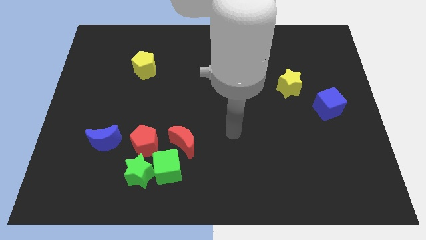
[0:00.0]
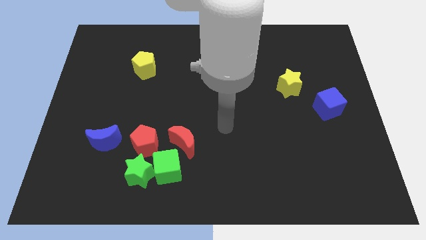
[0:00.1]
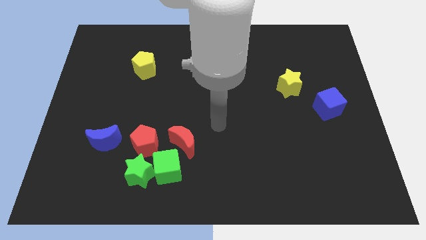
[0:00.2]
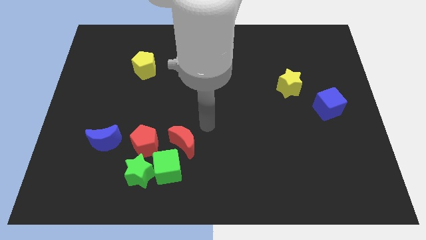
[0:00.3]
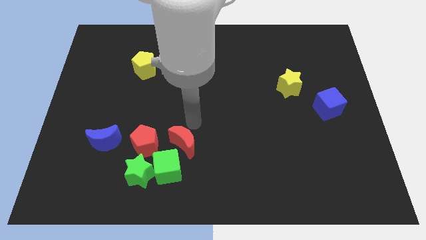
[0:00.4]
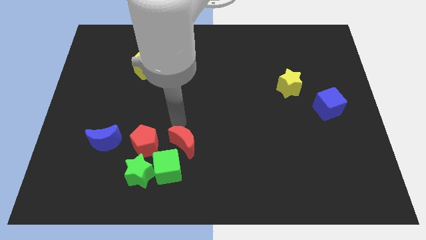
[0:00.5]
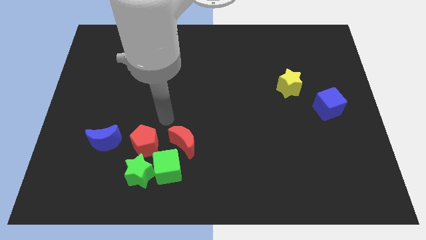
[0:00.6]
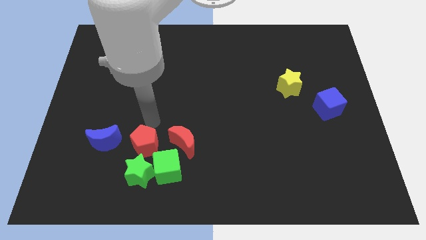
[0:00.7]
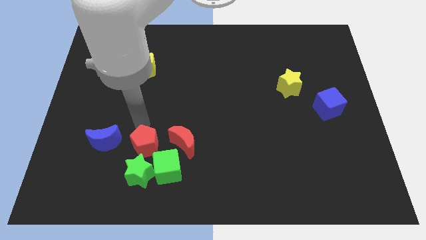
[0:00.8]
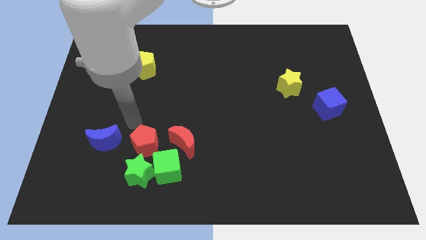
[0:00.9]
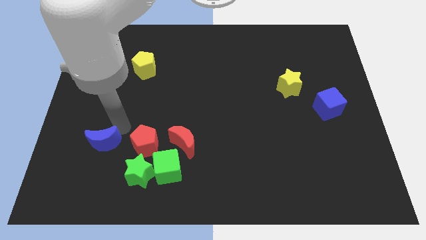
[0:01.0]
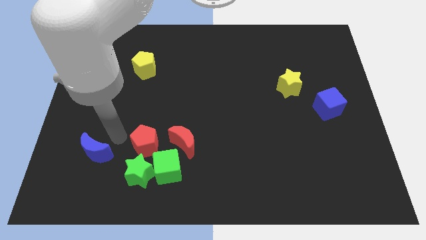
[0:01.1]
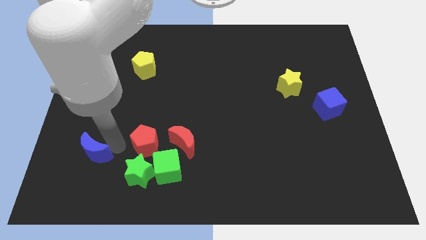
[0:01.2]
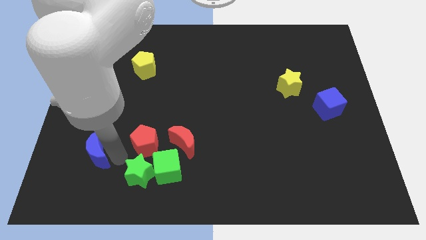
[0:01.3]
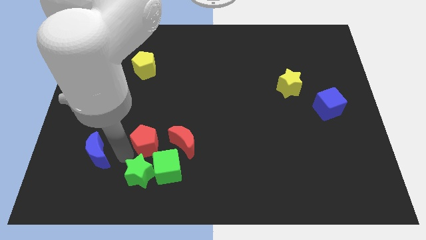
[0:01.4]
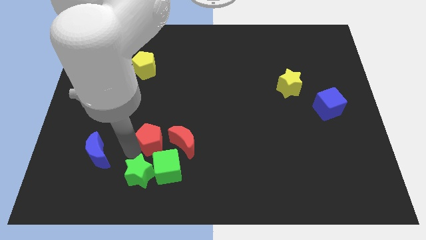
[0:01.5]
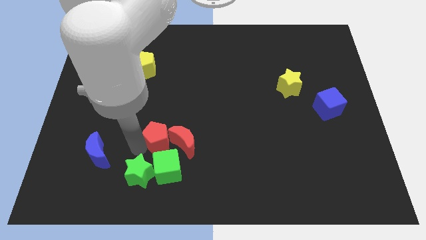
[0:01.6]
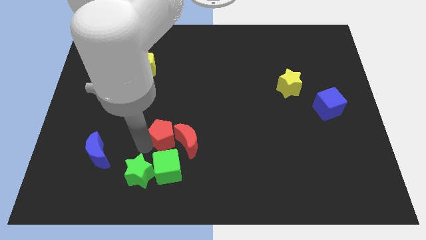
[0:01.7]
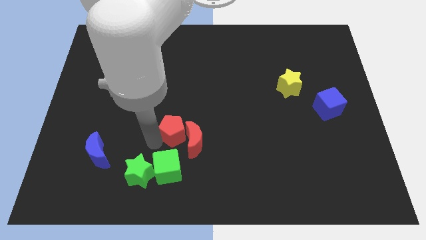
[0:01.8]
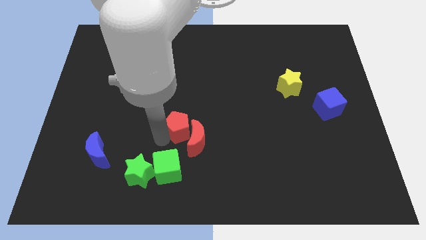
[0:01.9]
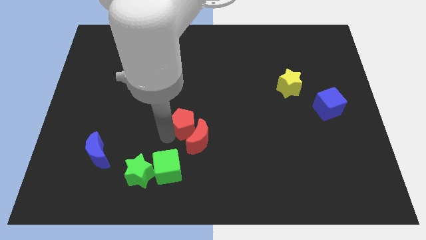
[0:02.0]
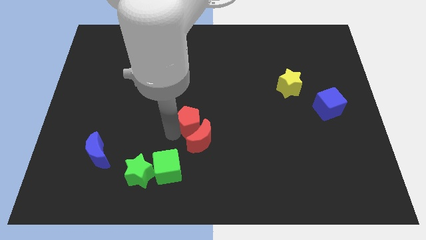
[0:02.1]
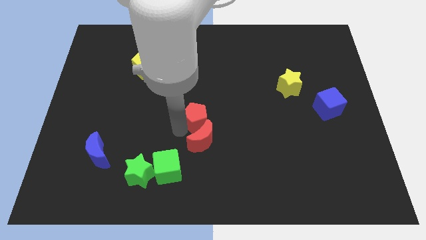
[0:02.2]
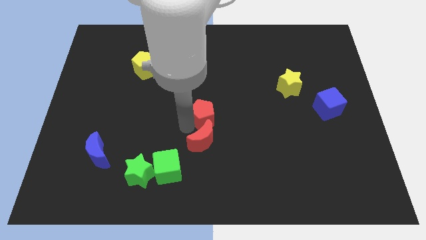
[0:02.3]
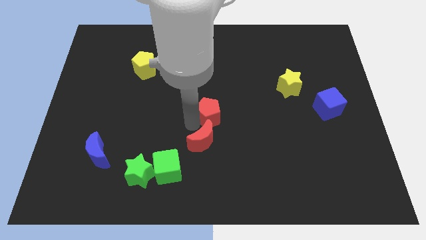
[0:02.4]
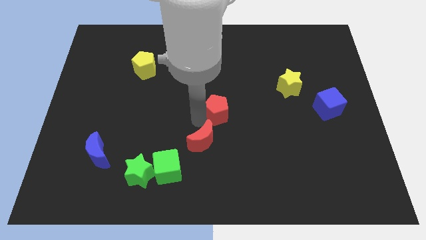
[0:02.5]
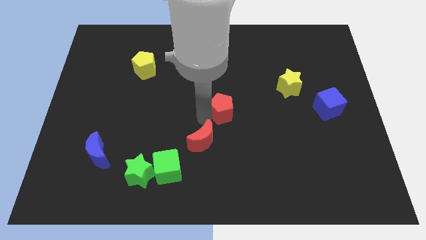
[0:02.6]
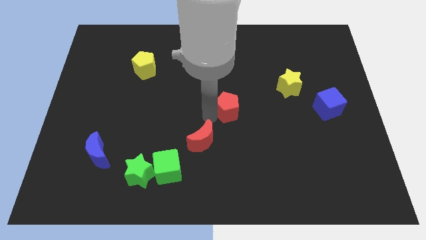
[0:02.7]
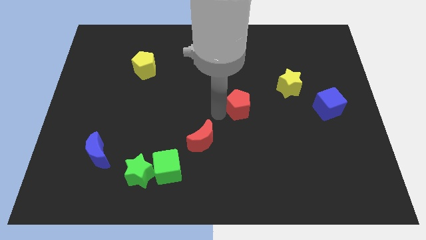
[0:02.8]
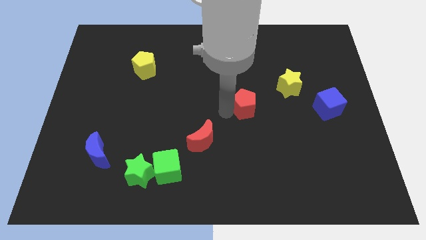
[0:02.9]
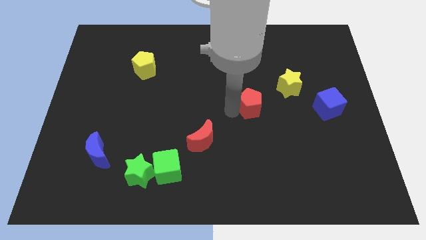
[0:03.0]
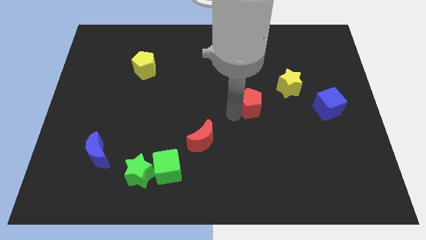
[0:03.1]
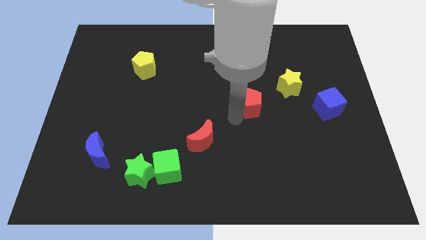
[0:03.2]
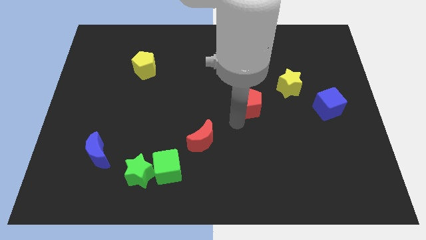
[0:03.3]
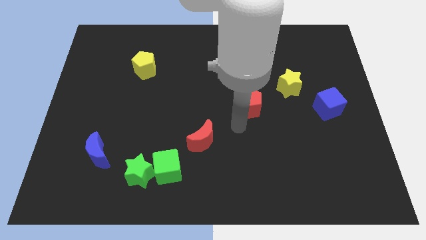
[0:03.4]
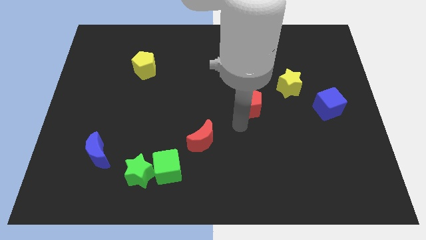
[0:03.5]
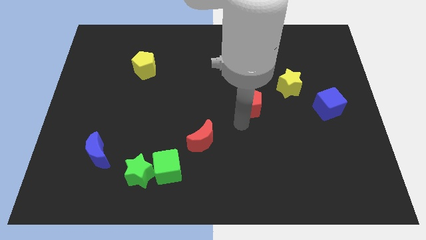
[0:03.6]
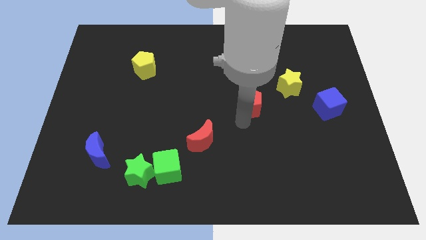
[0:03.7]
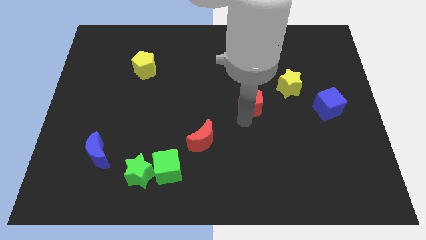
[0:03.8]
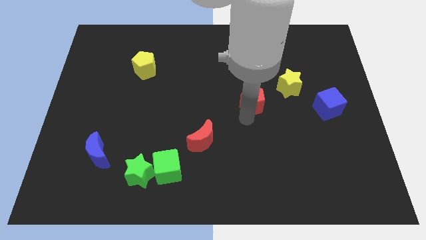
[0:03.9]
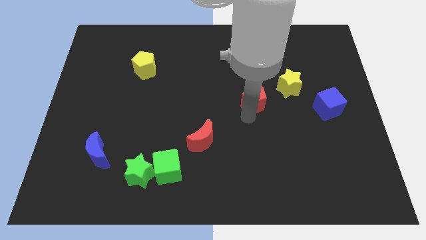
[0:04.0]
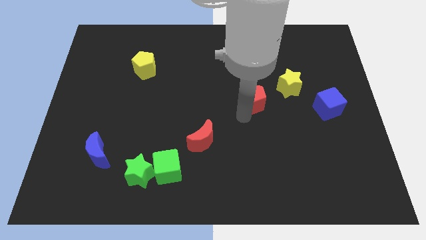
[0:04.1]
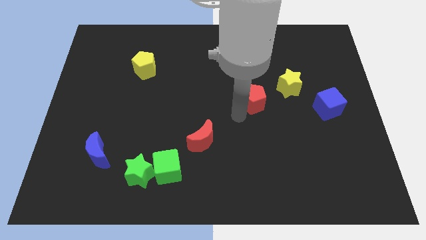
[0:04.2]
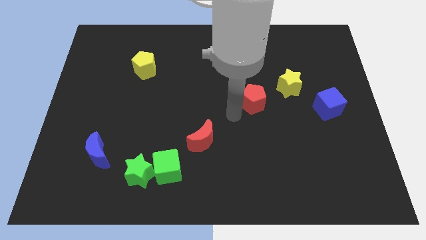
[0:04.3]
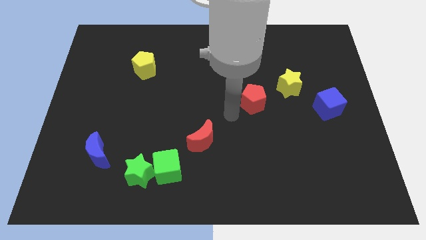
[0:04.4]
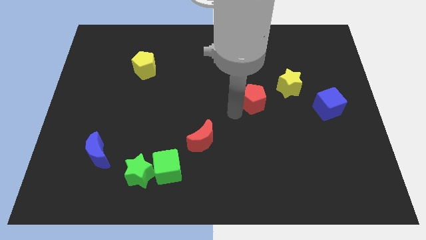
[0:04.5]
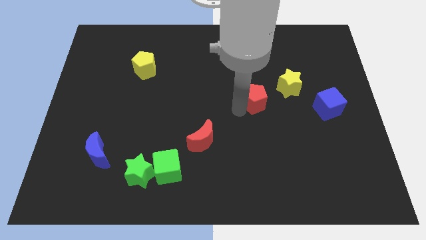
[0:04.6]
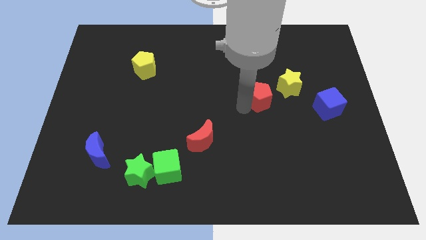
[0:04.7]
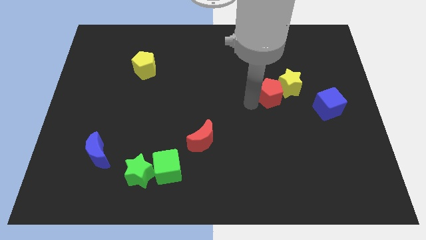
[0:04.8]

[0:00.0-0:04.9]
push the red pentagon towards the yellow star

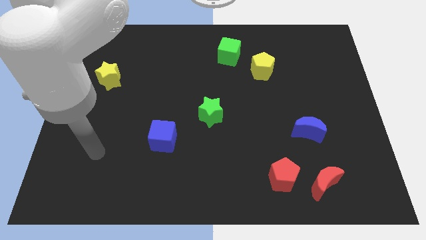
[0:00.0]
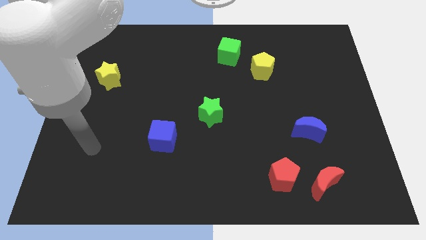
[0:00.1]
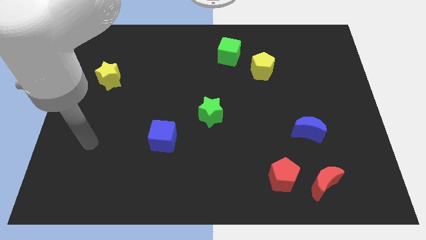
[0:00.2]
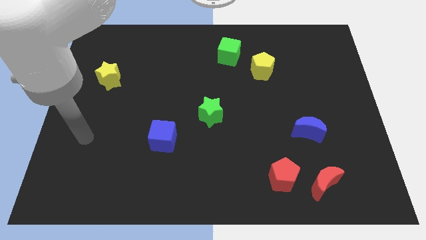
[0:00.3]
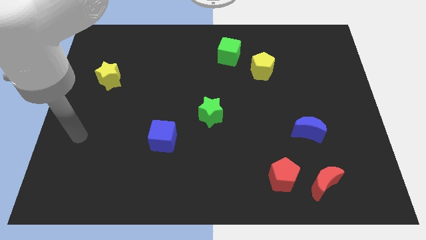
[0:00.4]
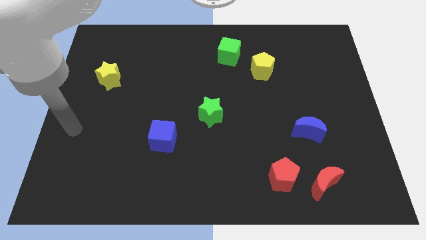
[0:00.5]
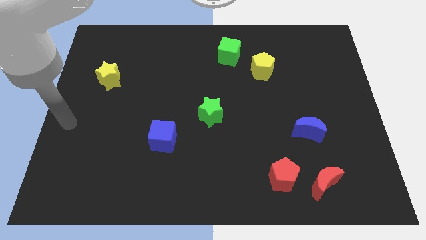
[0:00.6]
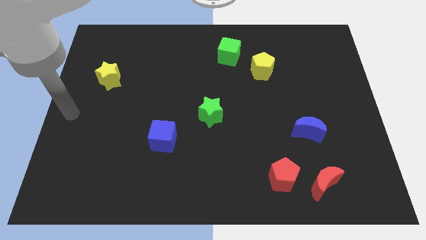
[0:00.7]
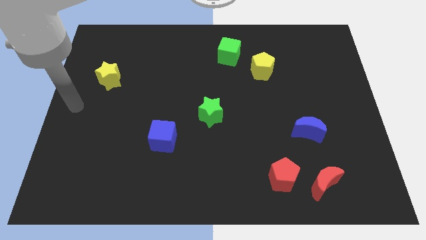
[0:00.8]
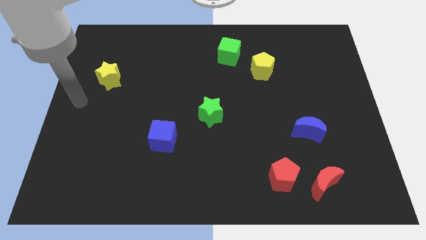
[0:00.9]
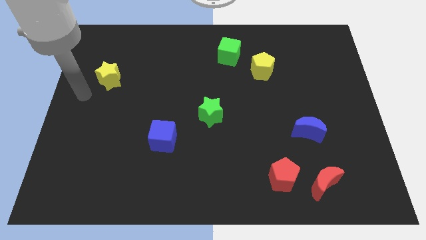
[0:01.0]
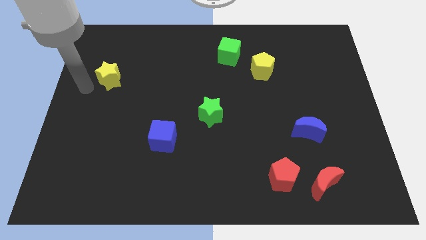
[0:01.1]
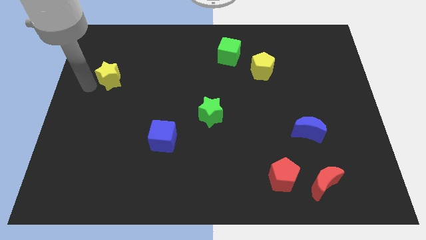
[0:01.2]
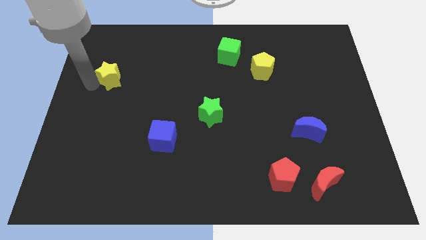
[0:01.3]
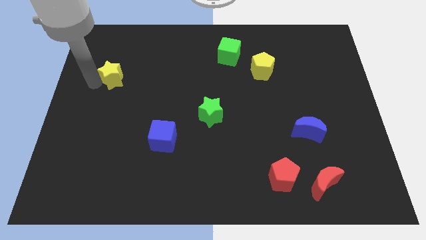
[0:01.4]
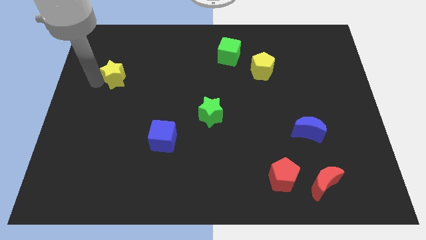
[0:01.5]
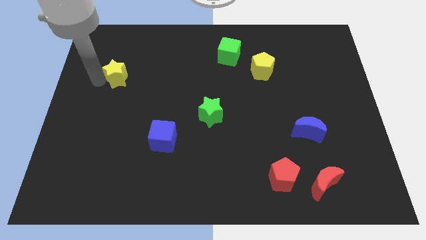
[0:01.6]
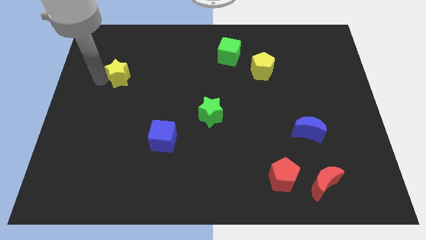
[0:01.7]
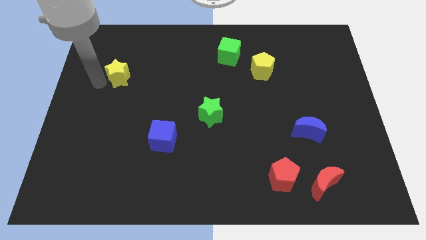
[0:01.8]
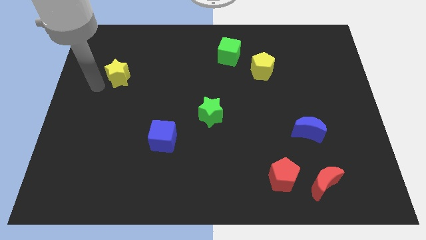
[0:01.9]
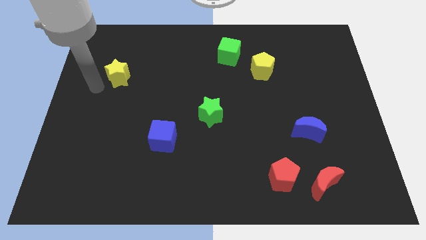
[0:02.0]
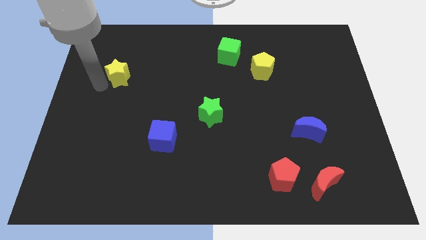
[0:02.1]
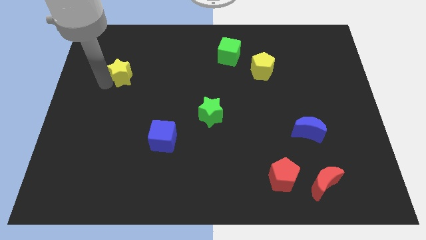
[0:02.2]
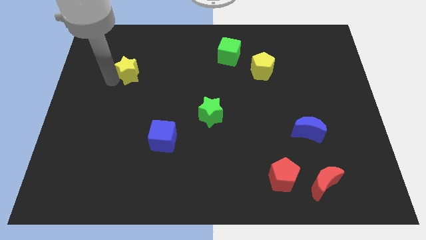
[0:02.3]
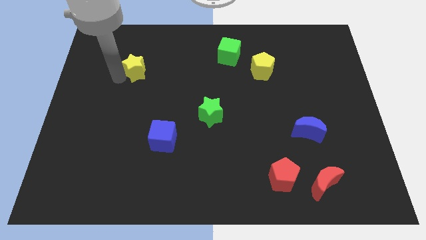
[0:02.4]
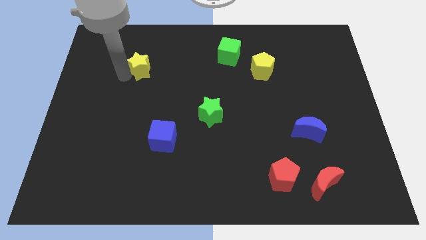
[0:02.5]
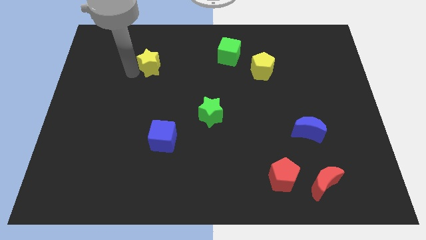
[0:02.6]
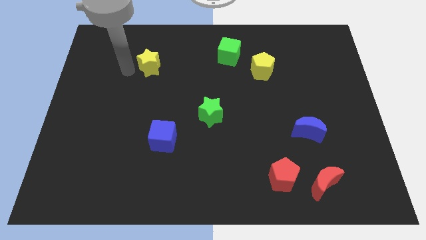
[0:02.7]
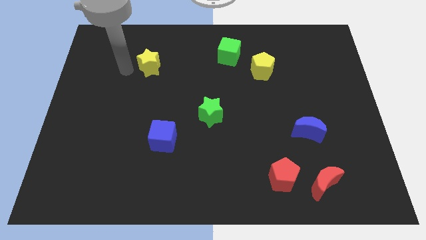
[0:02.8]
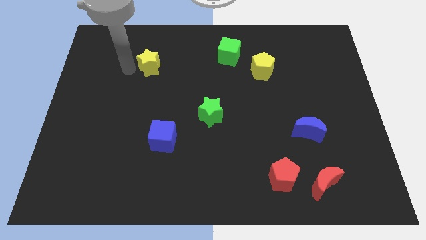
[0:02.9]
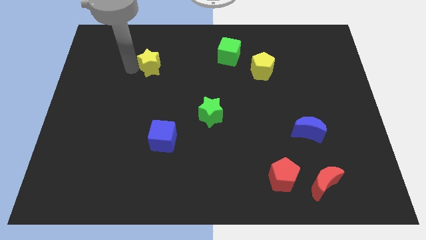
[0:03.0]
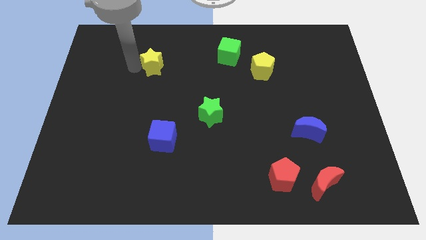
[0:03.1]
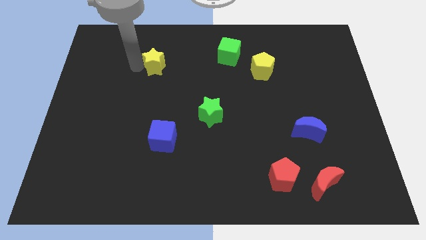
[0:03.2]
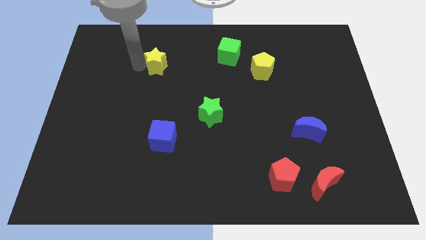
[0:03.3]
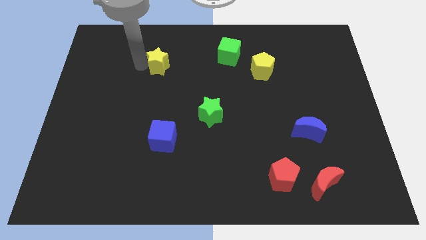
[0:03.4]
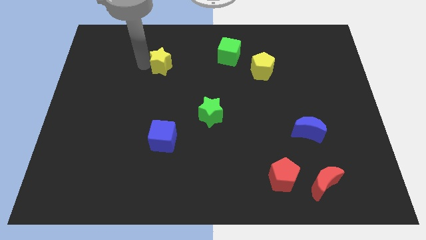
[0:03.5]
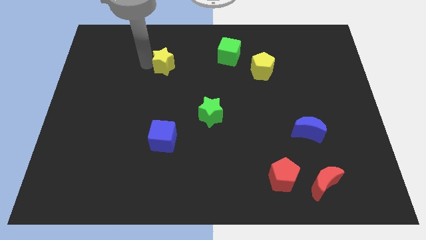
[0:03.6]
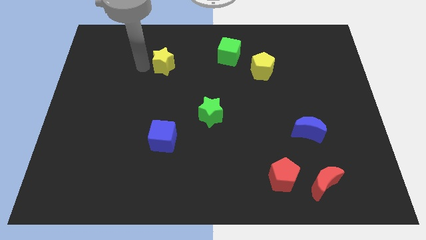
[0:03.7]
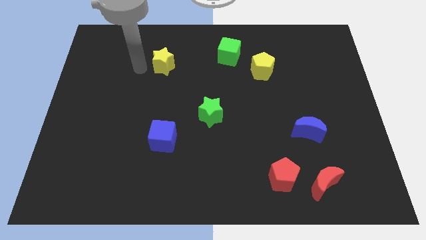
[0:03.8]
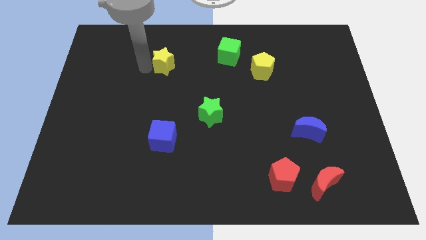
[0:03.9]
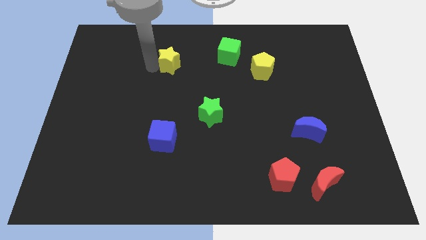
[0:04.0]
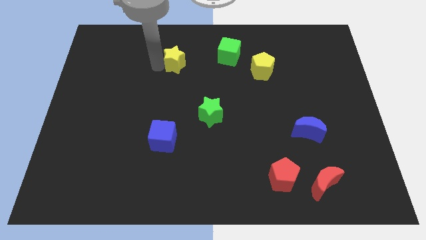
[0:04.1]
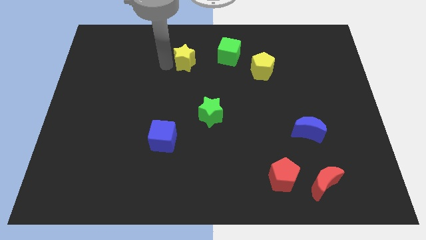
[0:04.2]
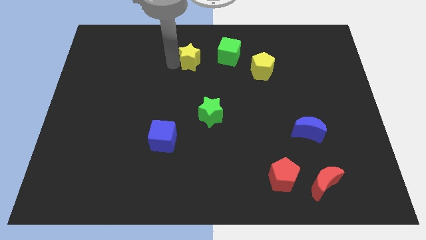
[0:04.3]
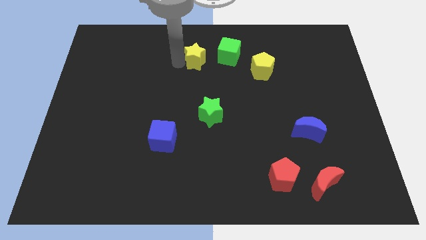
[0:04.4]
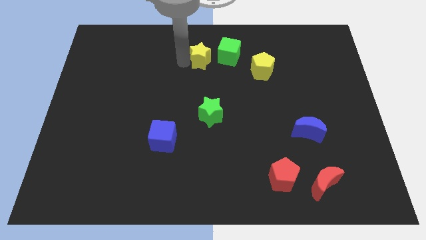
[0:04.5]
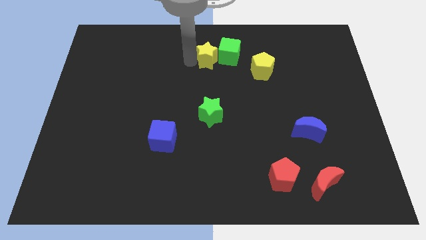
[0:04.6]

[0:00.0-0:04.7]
push the yellow star to the green cube
